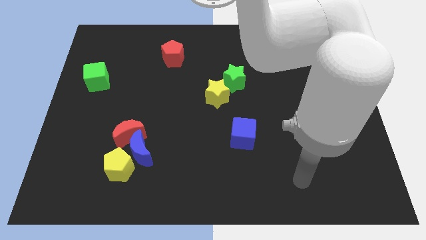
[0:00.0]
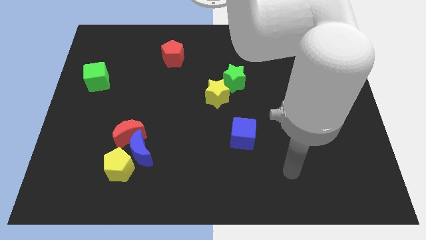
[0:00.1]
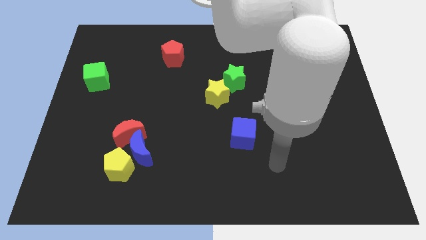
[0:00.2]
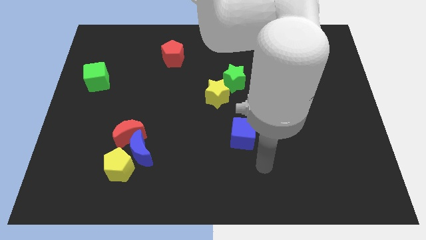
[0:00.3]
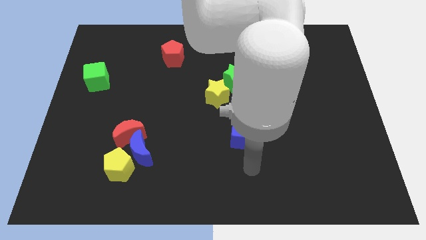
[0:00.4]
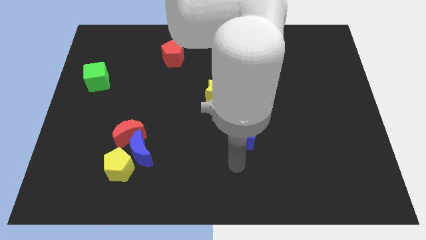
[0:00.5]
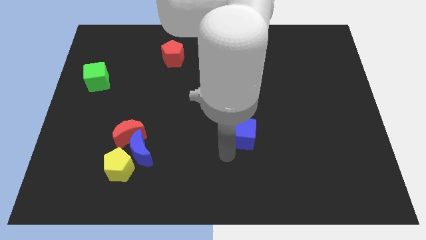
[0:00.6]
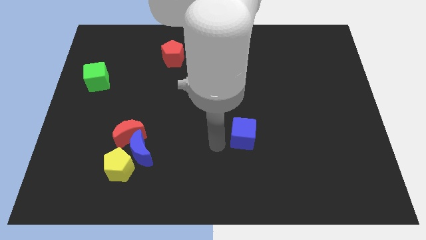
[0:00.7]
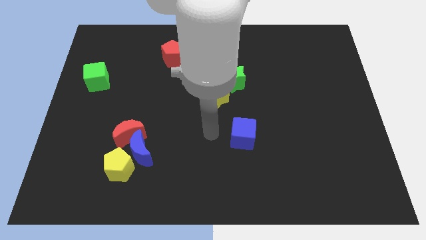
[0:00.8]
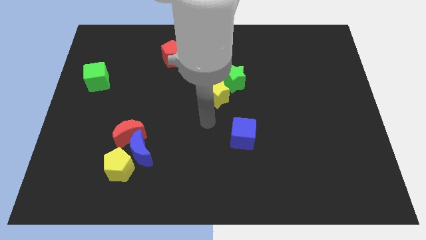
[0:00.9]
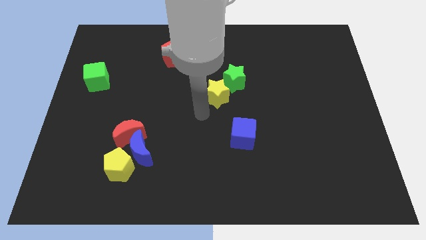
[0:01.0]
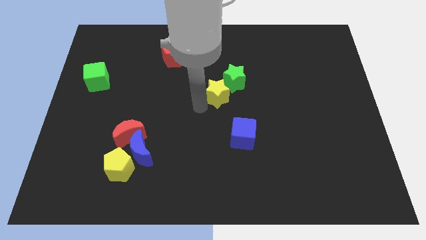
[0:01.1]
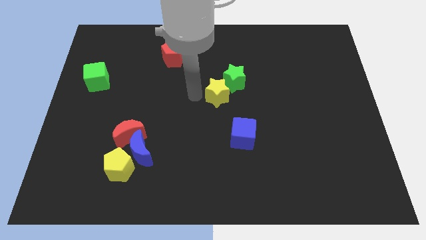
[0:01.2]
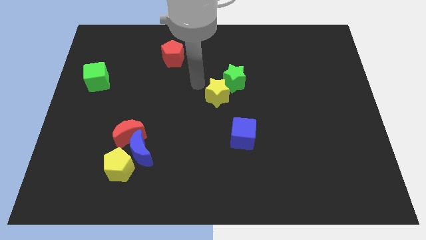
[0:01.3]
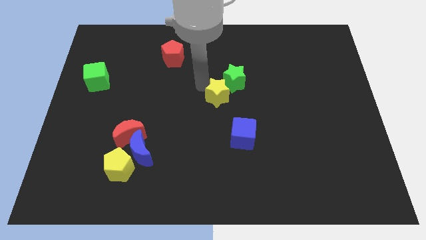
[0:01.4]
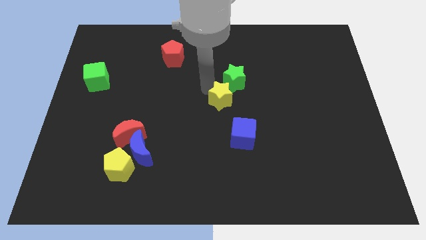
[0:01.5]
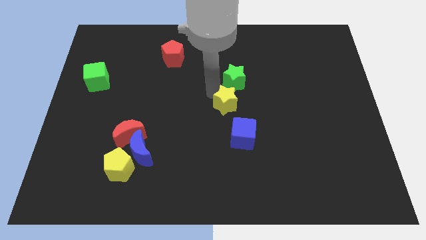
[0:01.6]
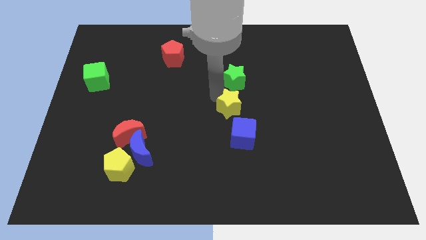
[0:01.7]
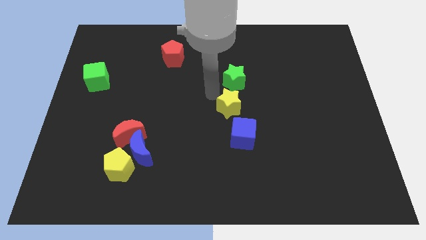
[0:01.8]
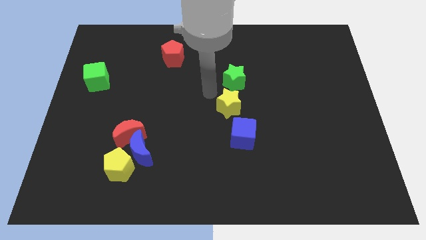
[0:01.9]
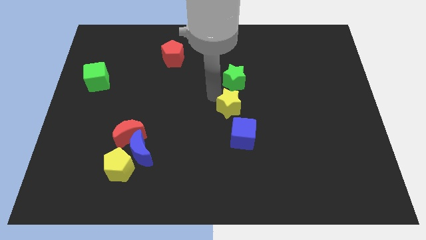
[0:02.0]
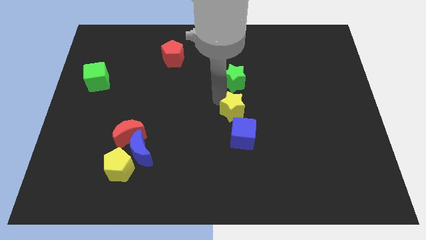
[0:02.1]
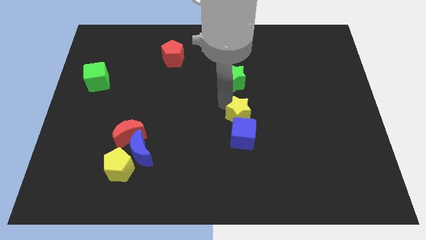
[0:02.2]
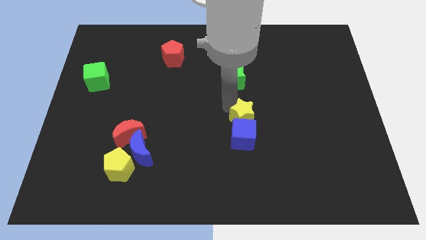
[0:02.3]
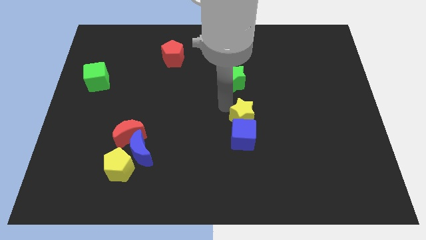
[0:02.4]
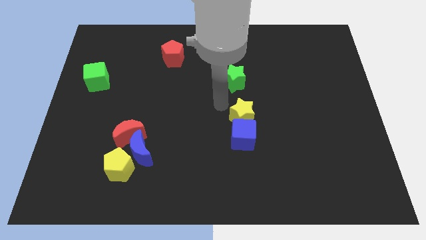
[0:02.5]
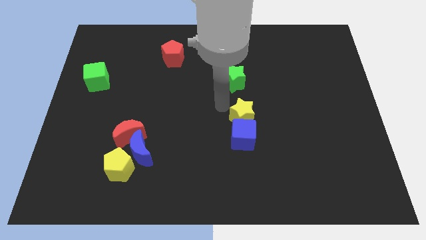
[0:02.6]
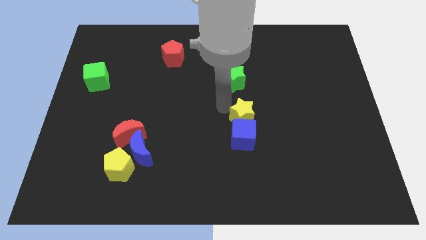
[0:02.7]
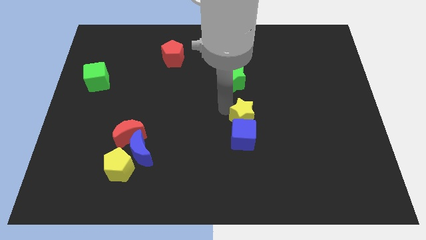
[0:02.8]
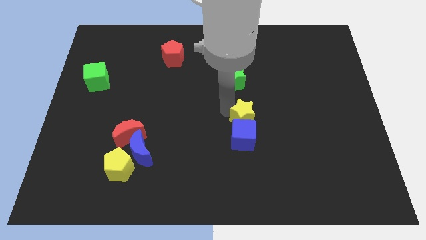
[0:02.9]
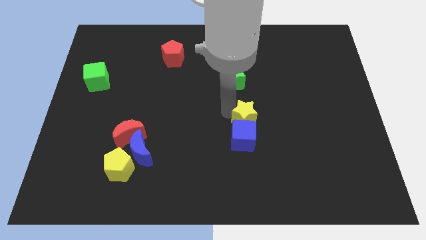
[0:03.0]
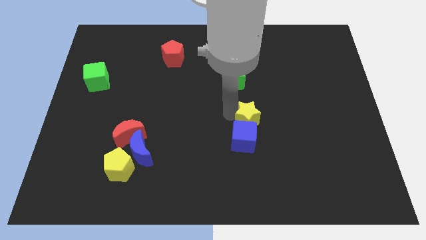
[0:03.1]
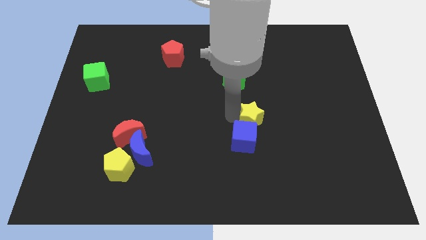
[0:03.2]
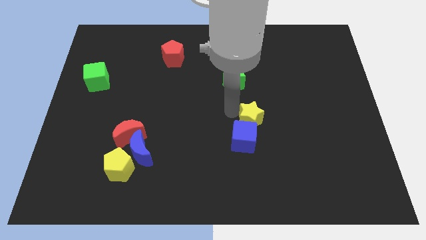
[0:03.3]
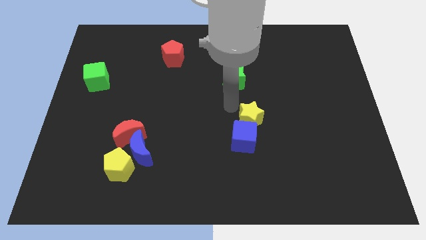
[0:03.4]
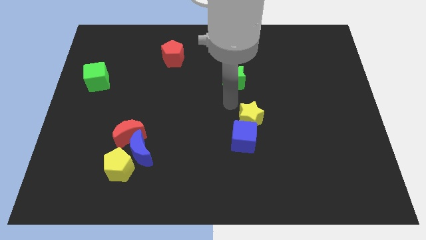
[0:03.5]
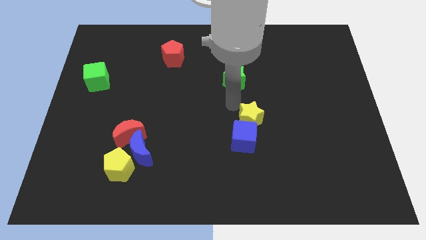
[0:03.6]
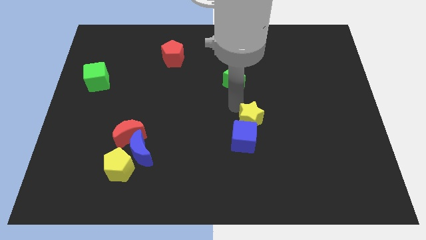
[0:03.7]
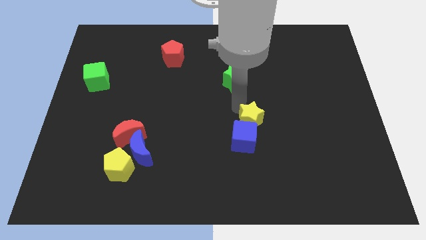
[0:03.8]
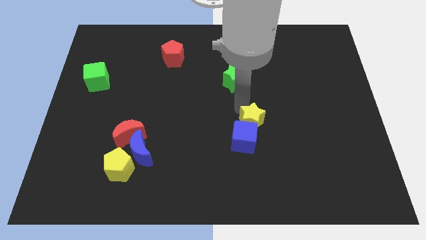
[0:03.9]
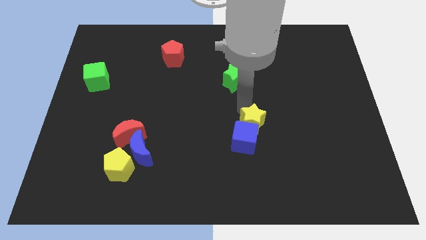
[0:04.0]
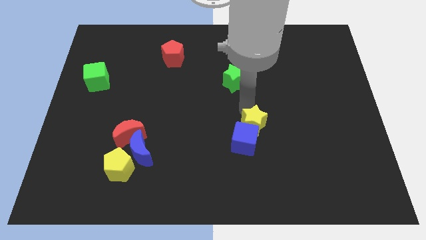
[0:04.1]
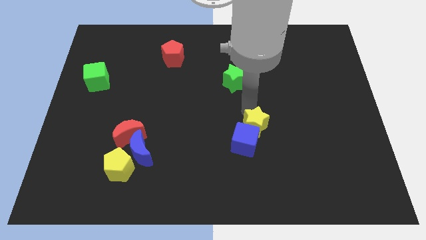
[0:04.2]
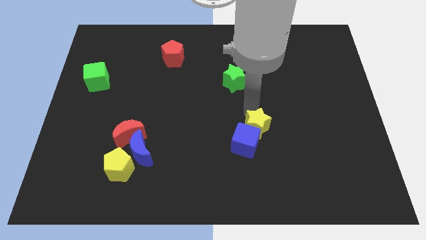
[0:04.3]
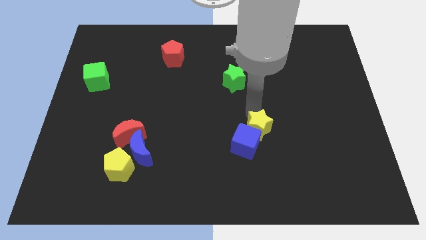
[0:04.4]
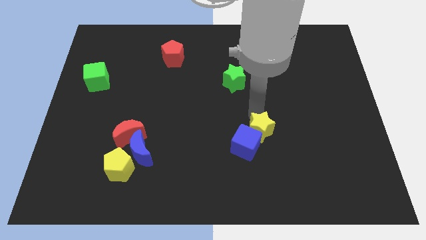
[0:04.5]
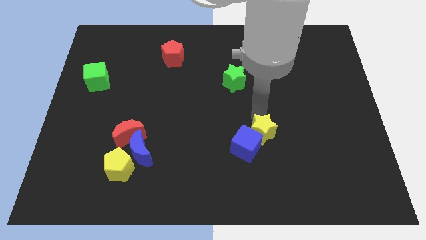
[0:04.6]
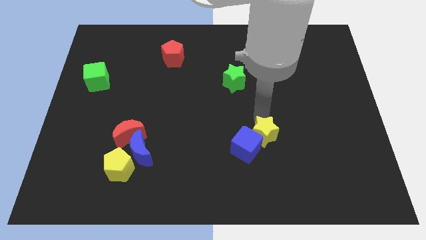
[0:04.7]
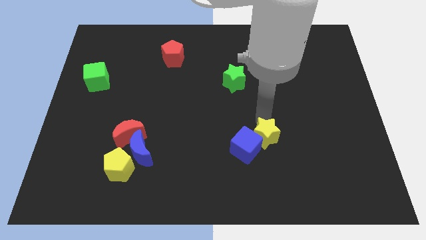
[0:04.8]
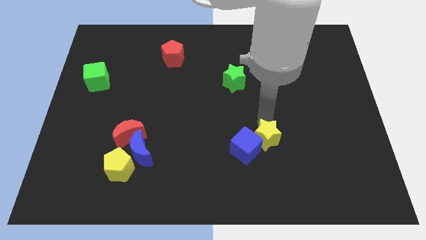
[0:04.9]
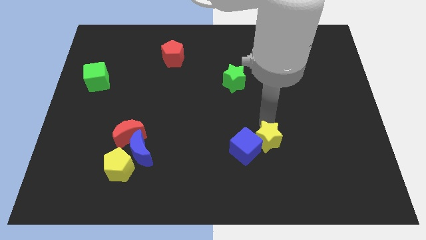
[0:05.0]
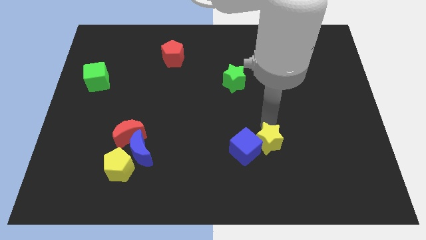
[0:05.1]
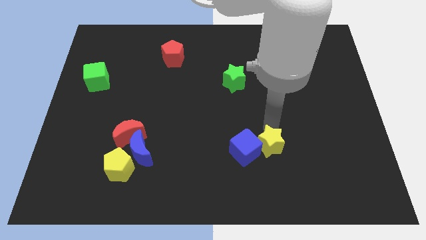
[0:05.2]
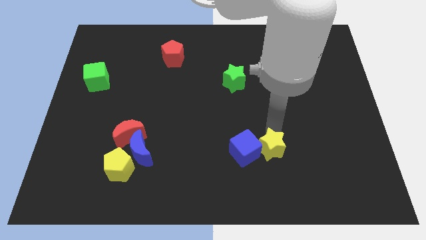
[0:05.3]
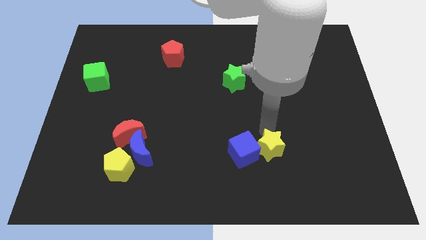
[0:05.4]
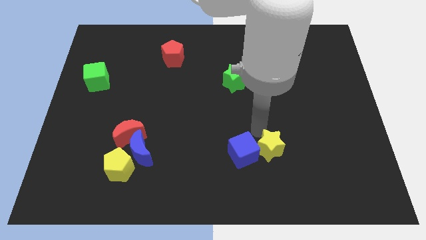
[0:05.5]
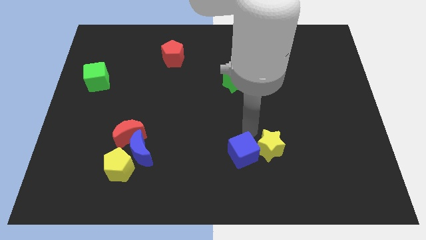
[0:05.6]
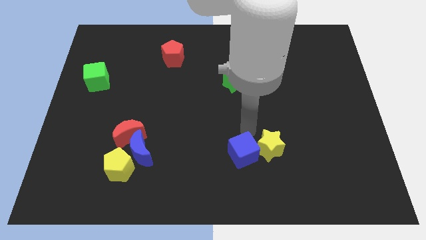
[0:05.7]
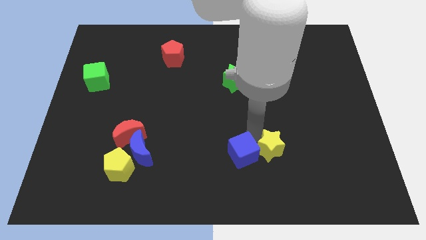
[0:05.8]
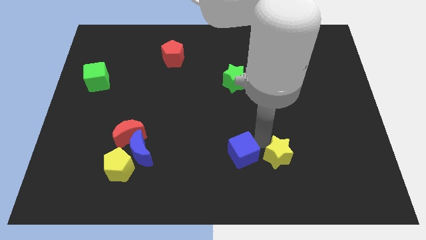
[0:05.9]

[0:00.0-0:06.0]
slide the yellow star downwards and then right

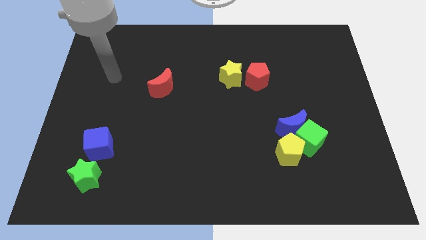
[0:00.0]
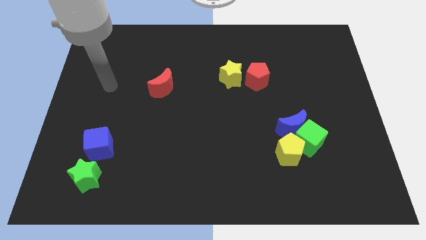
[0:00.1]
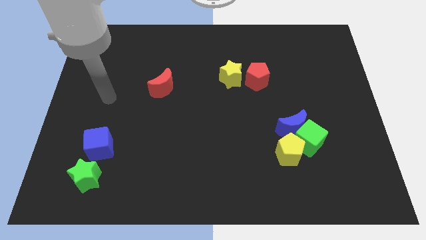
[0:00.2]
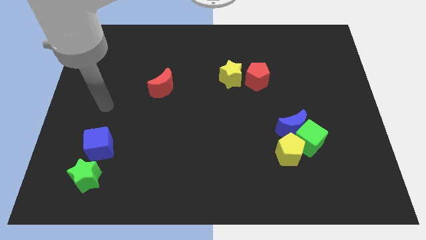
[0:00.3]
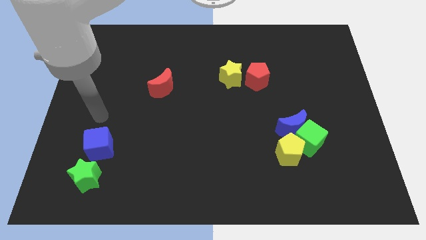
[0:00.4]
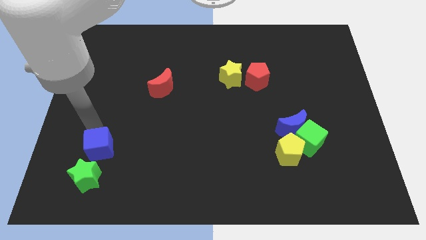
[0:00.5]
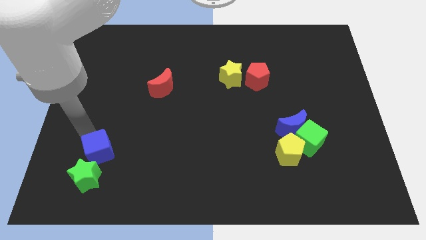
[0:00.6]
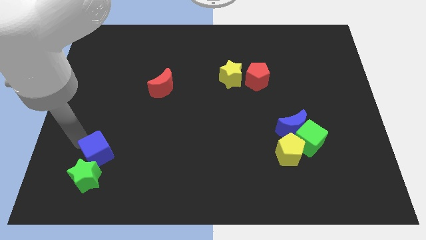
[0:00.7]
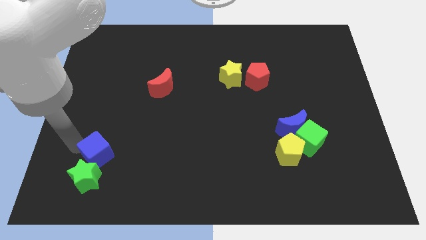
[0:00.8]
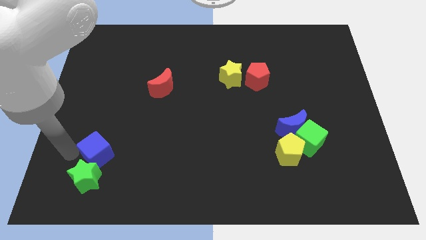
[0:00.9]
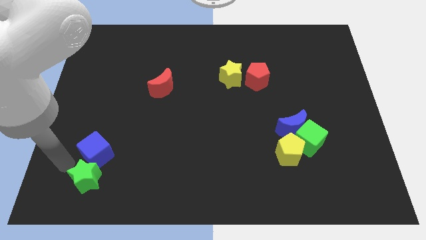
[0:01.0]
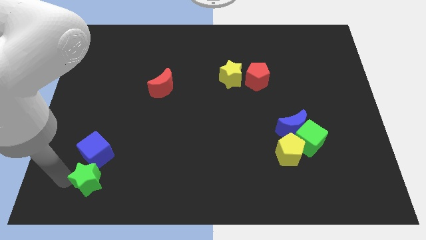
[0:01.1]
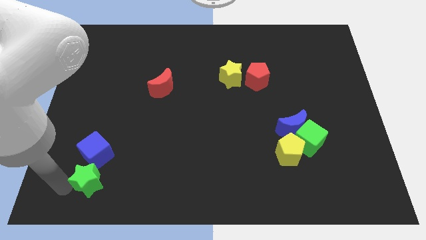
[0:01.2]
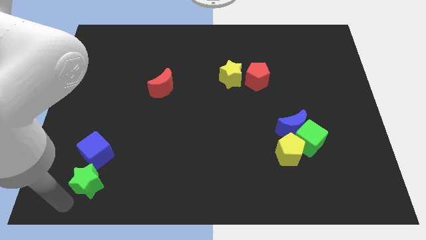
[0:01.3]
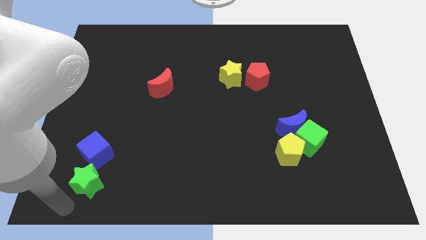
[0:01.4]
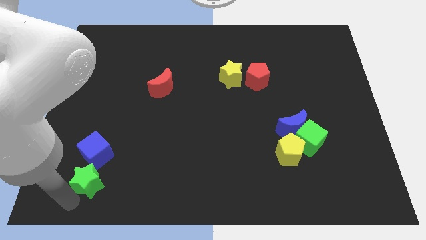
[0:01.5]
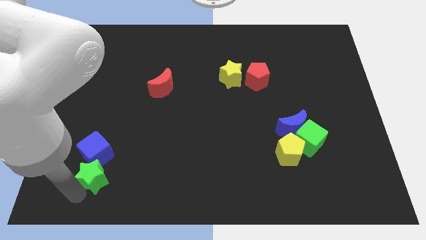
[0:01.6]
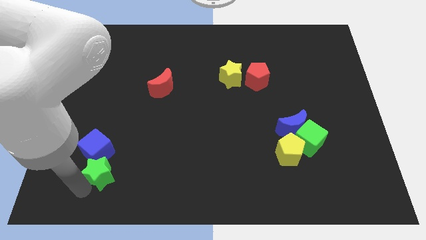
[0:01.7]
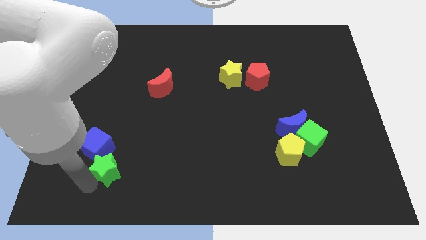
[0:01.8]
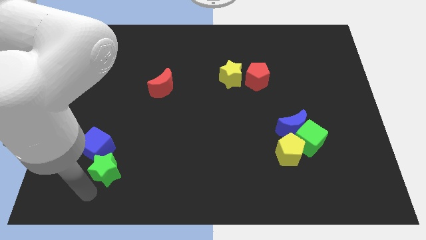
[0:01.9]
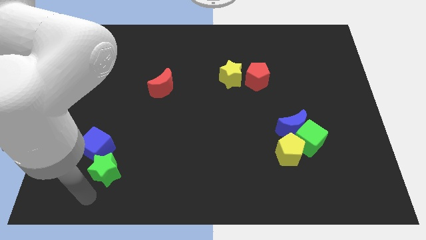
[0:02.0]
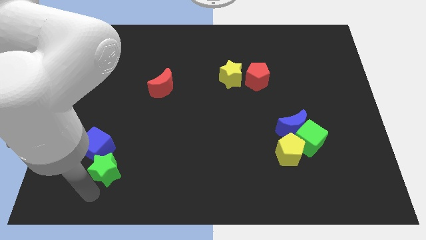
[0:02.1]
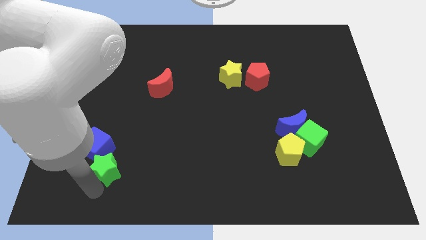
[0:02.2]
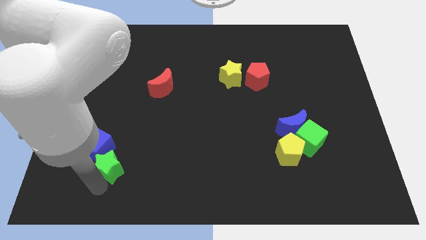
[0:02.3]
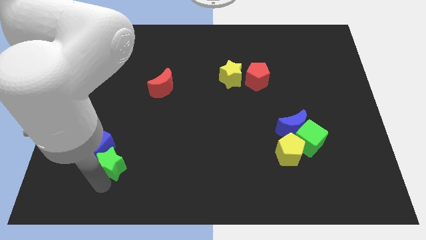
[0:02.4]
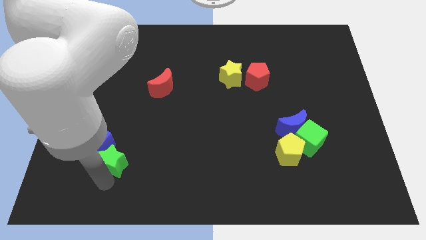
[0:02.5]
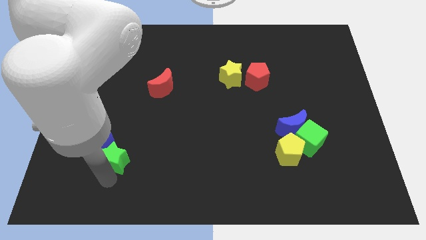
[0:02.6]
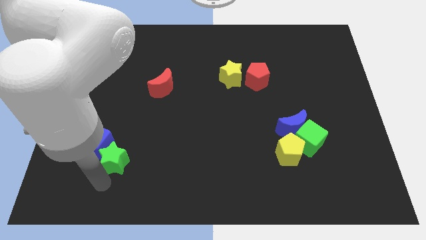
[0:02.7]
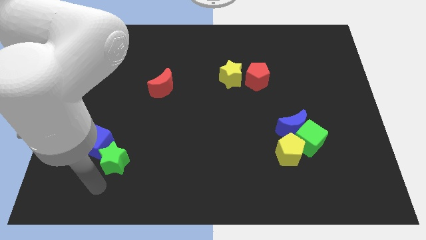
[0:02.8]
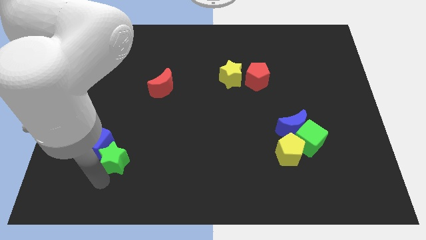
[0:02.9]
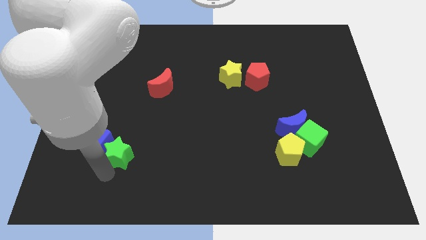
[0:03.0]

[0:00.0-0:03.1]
slightly slide the green star upwards and then right
